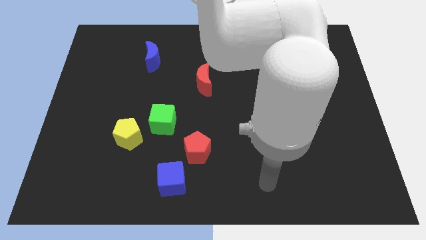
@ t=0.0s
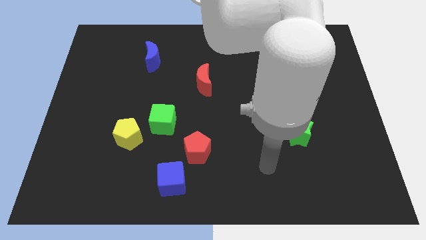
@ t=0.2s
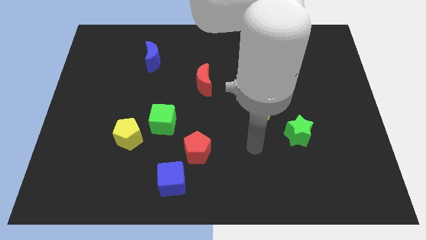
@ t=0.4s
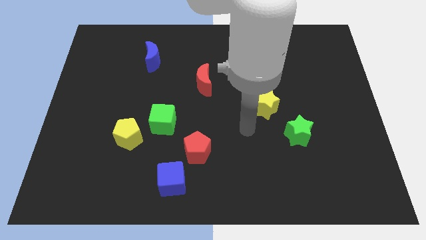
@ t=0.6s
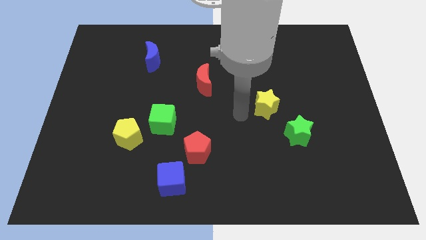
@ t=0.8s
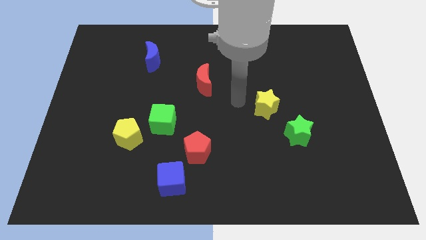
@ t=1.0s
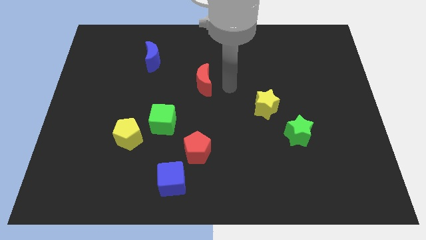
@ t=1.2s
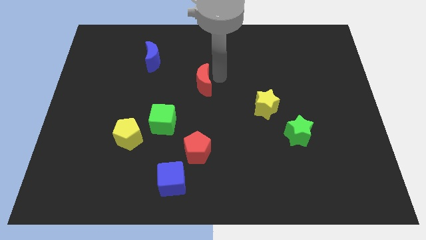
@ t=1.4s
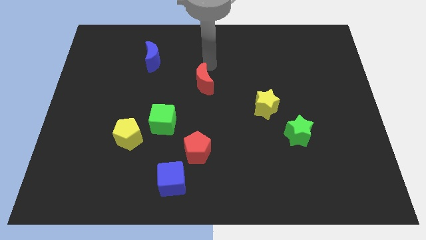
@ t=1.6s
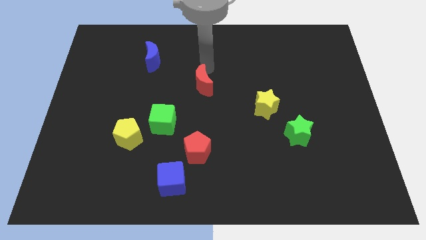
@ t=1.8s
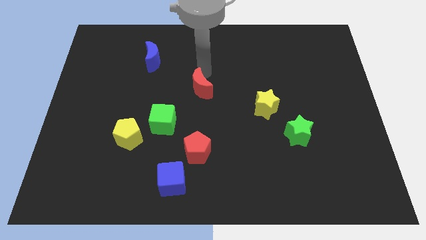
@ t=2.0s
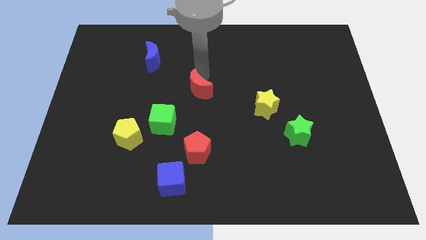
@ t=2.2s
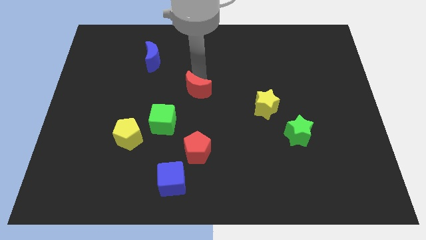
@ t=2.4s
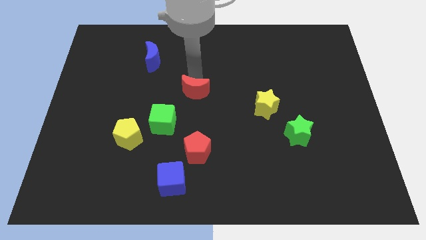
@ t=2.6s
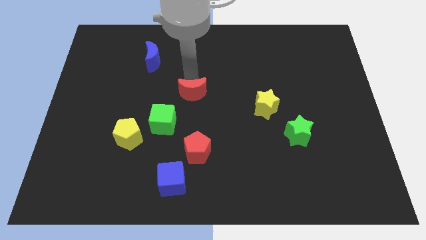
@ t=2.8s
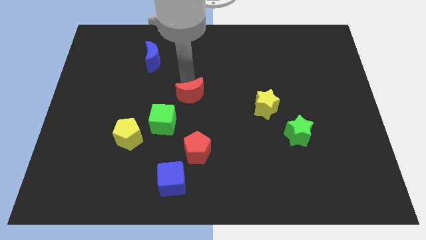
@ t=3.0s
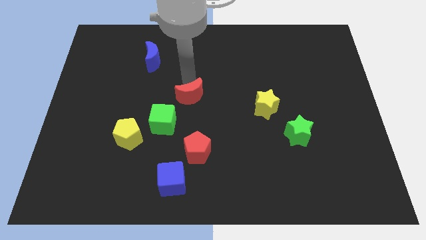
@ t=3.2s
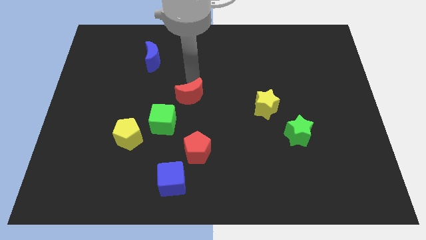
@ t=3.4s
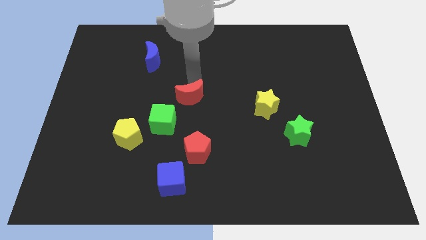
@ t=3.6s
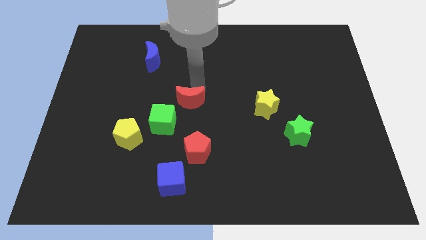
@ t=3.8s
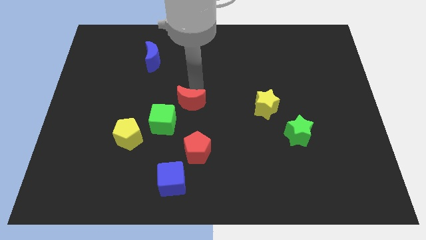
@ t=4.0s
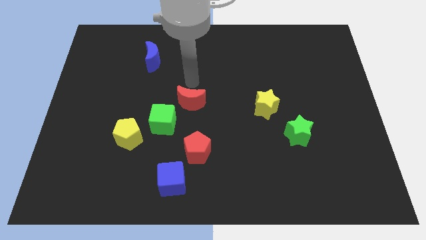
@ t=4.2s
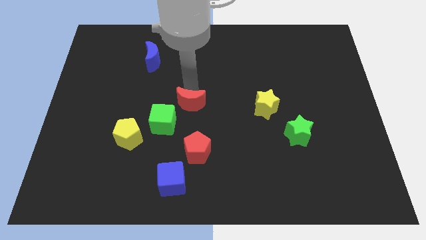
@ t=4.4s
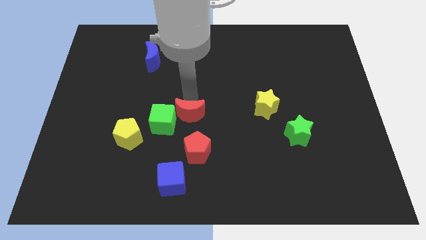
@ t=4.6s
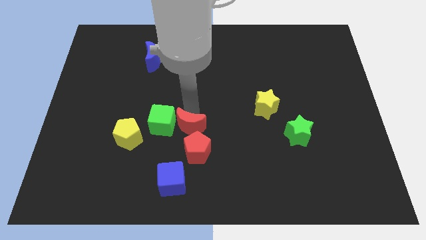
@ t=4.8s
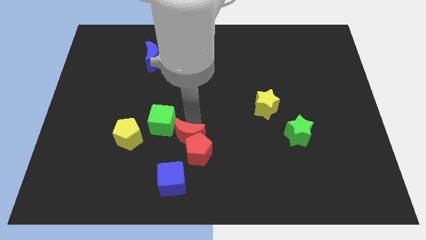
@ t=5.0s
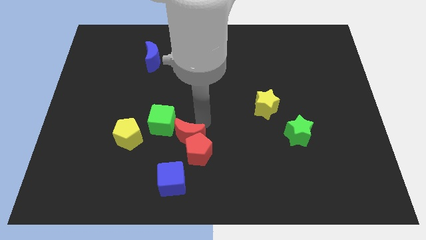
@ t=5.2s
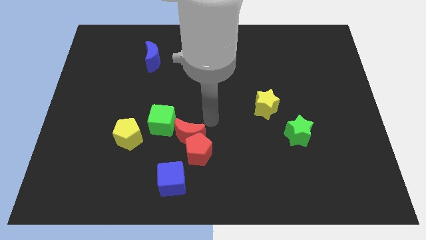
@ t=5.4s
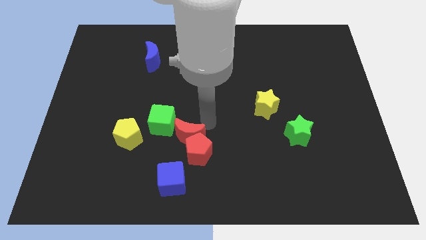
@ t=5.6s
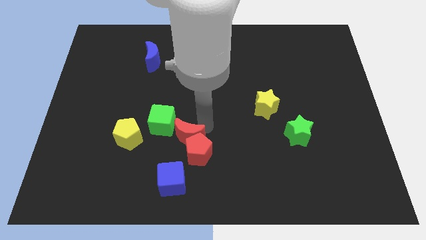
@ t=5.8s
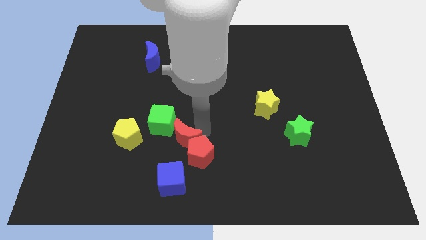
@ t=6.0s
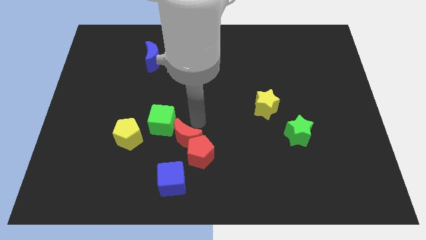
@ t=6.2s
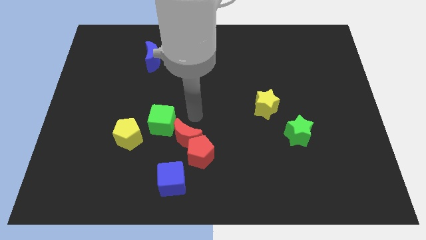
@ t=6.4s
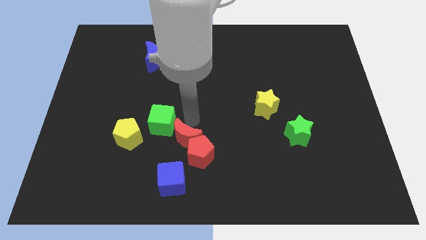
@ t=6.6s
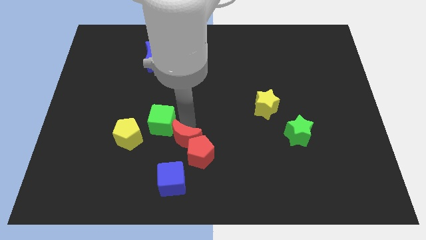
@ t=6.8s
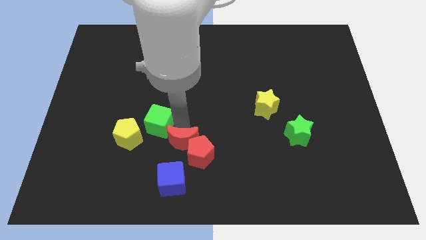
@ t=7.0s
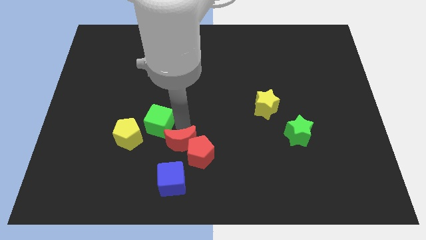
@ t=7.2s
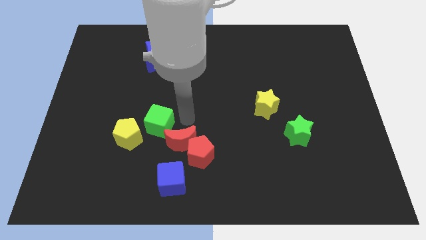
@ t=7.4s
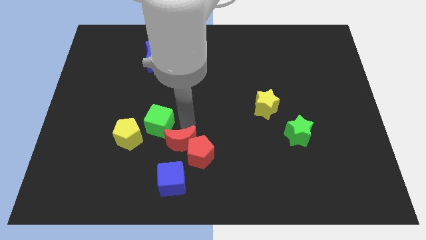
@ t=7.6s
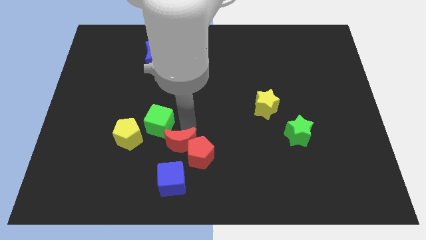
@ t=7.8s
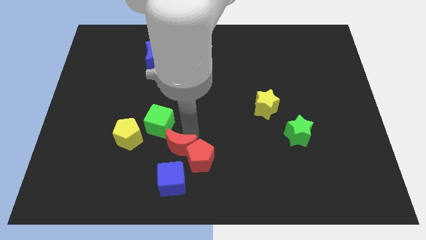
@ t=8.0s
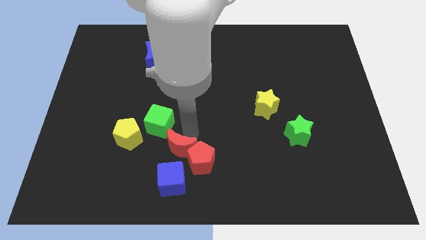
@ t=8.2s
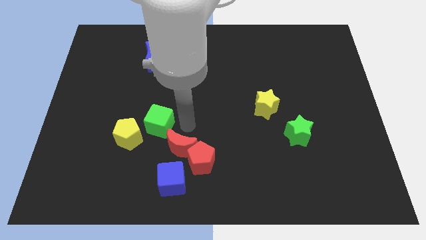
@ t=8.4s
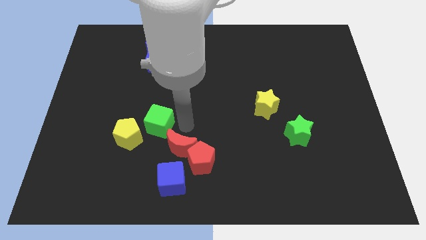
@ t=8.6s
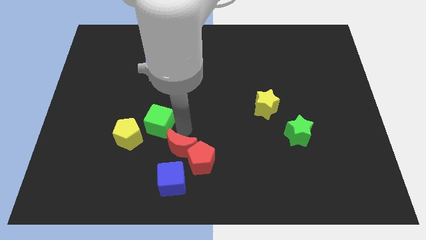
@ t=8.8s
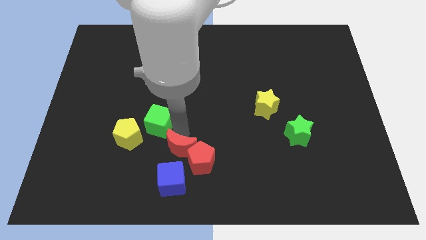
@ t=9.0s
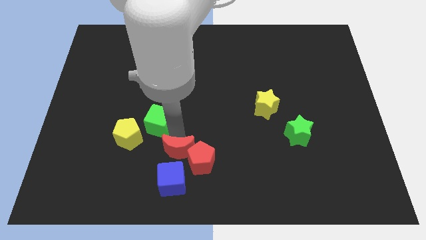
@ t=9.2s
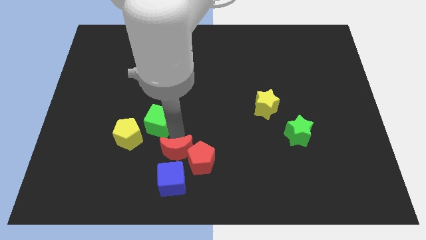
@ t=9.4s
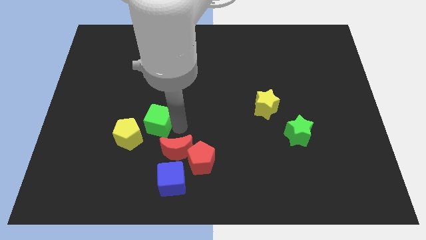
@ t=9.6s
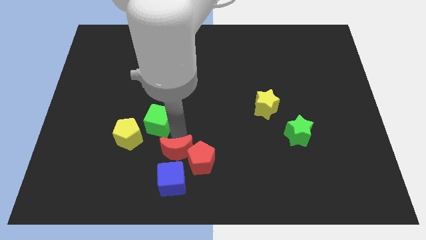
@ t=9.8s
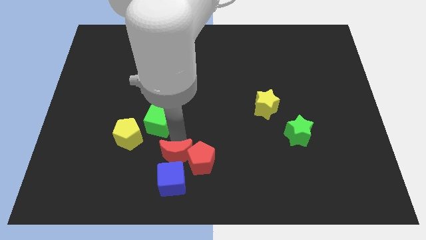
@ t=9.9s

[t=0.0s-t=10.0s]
move the red moon towards the blue cube

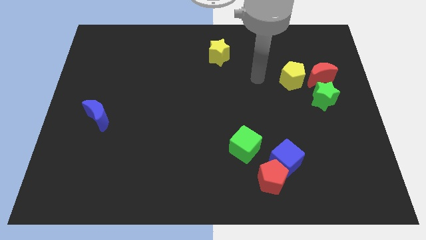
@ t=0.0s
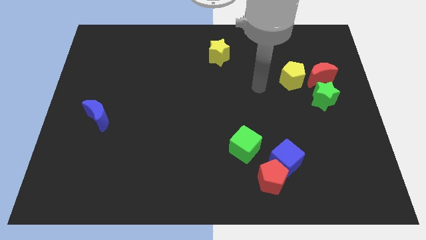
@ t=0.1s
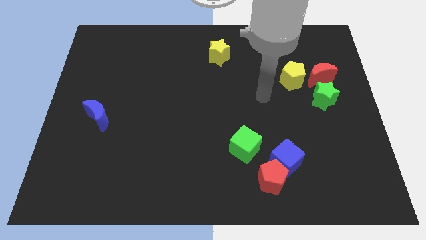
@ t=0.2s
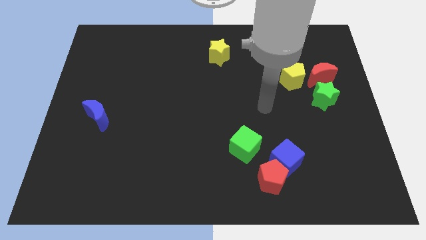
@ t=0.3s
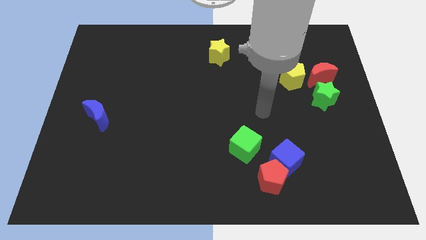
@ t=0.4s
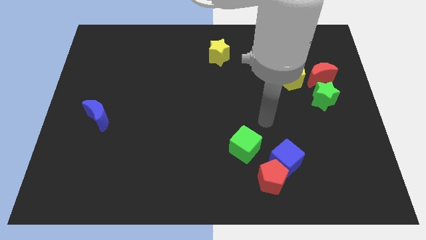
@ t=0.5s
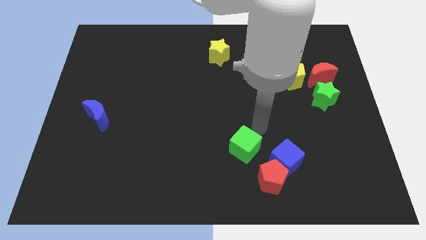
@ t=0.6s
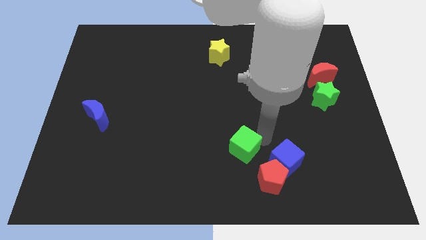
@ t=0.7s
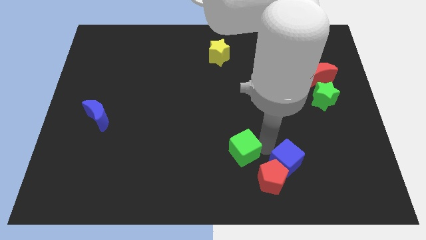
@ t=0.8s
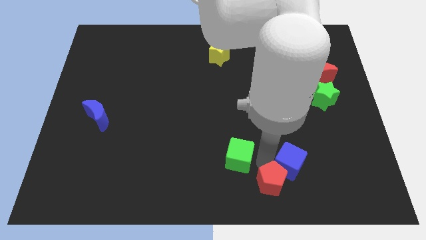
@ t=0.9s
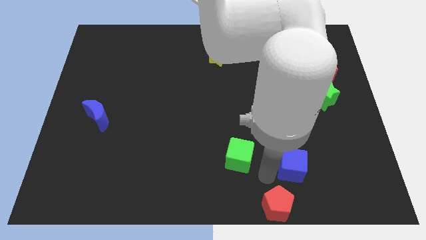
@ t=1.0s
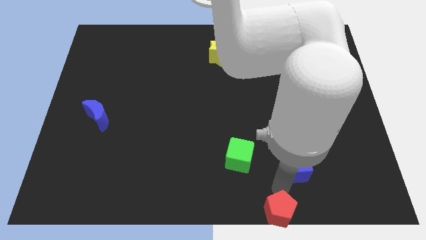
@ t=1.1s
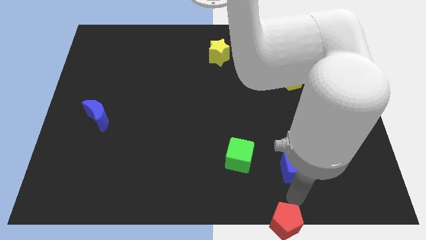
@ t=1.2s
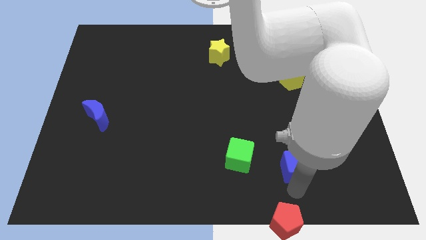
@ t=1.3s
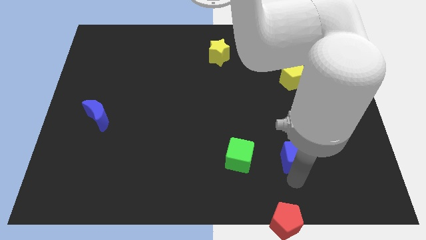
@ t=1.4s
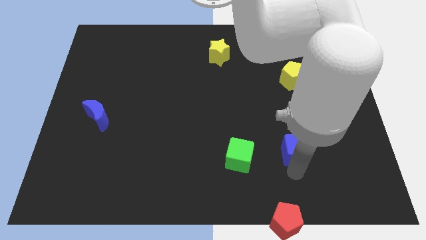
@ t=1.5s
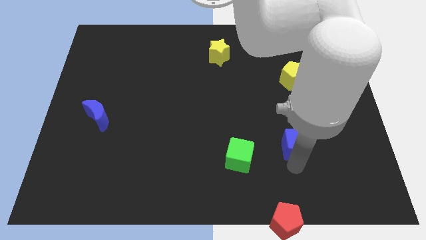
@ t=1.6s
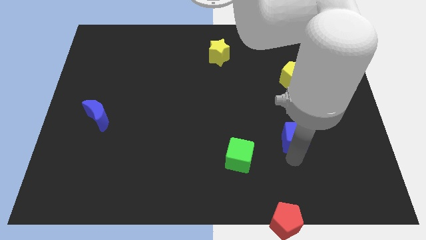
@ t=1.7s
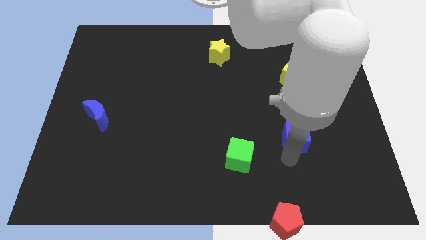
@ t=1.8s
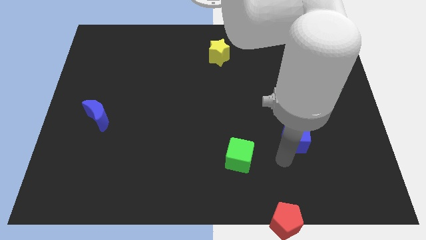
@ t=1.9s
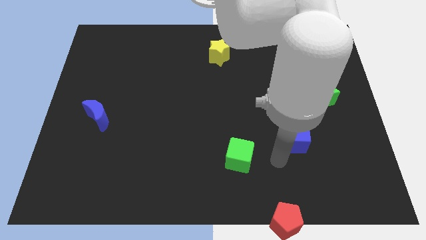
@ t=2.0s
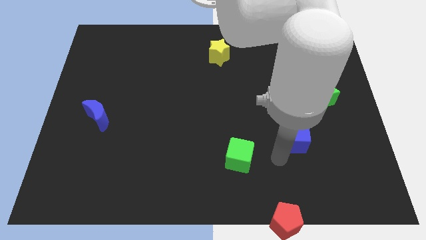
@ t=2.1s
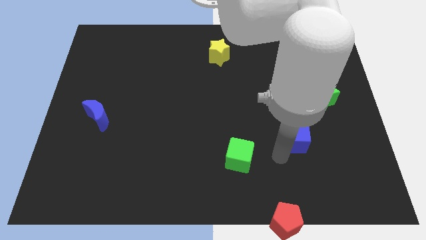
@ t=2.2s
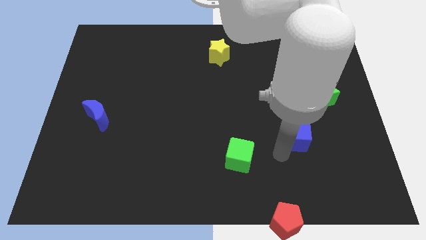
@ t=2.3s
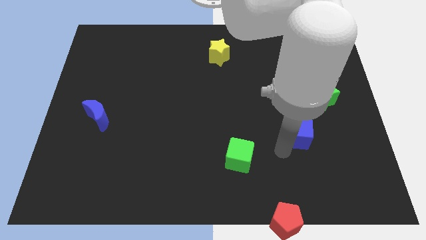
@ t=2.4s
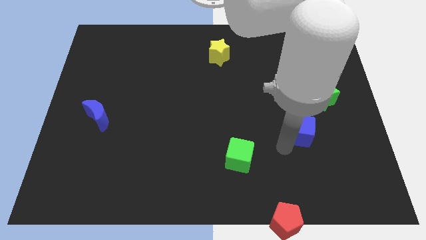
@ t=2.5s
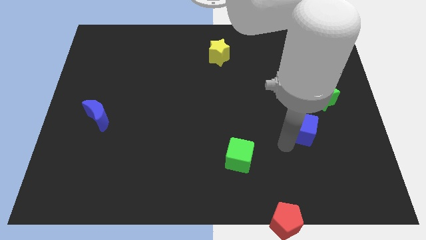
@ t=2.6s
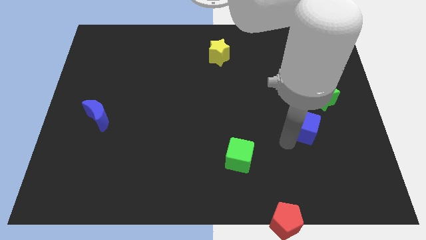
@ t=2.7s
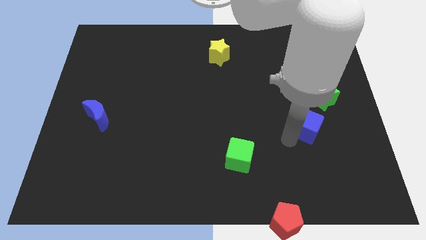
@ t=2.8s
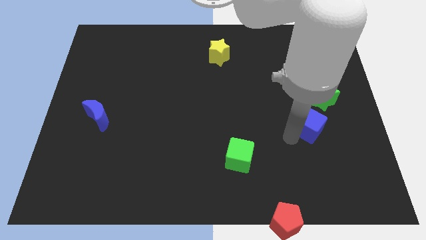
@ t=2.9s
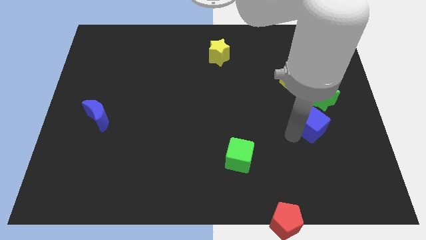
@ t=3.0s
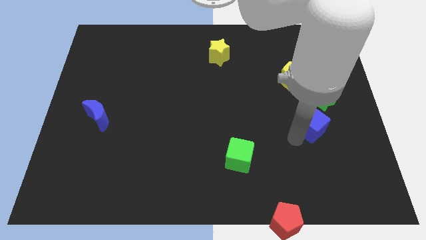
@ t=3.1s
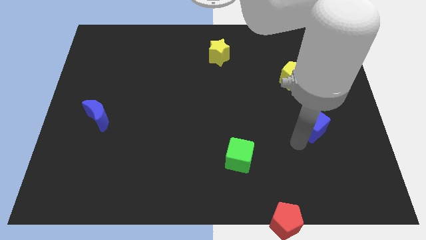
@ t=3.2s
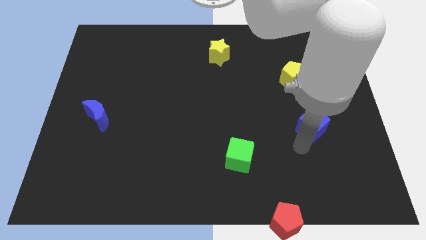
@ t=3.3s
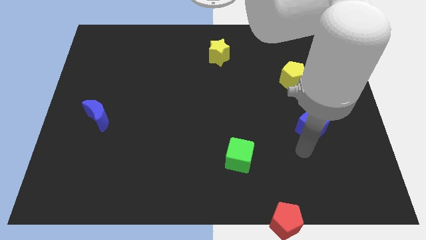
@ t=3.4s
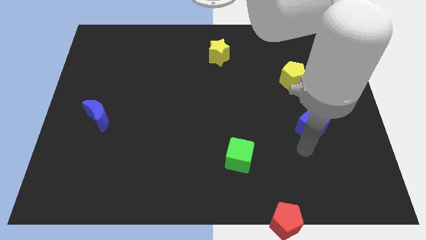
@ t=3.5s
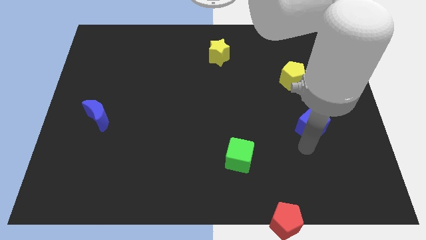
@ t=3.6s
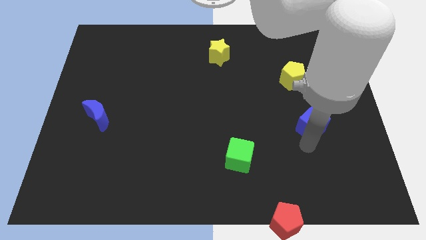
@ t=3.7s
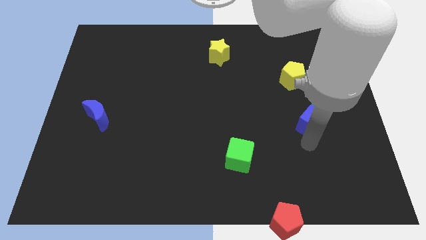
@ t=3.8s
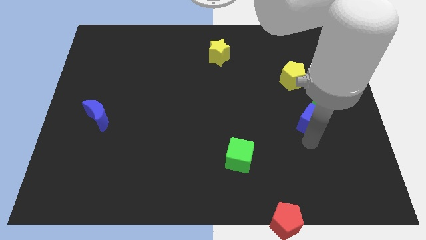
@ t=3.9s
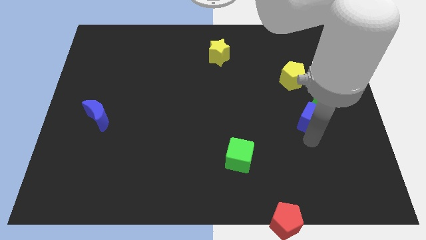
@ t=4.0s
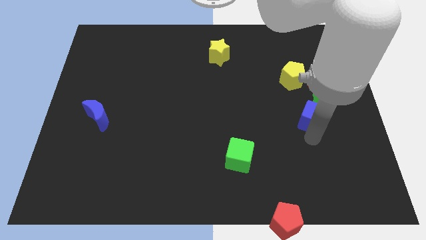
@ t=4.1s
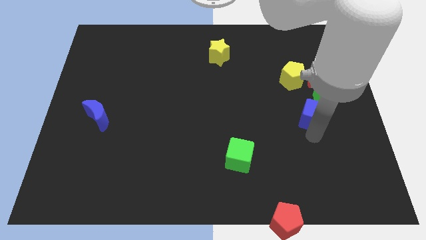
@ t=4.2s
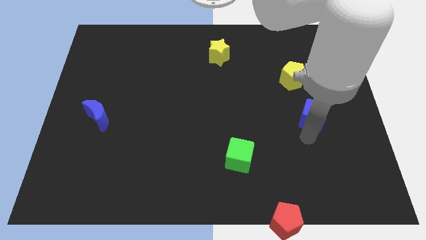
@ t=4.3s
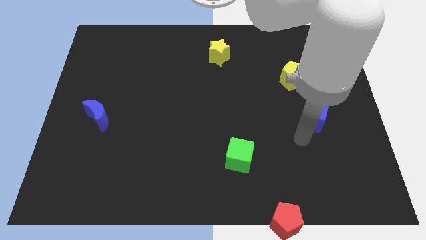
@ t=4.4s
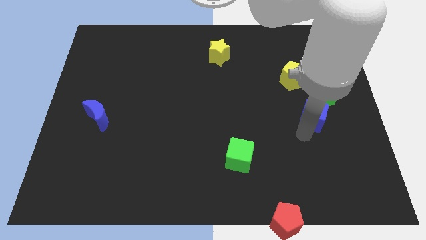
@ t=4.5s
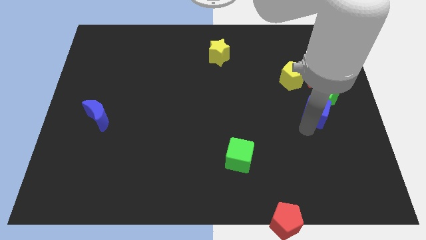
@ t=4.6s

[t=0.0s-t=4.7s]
move the blue cube next to the green star
